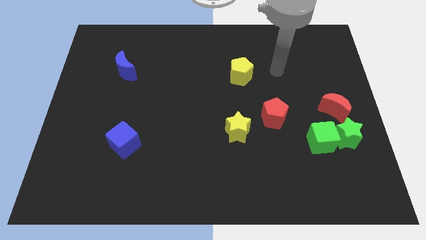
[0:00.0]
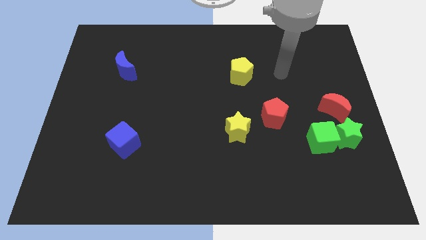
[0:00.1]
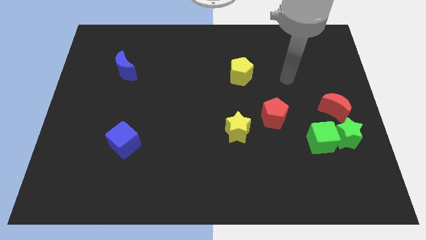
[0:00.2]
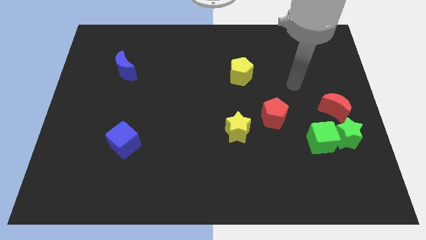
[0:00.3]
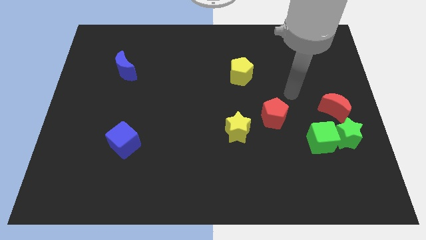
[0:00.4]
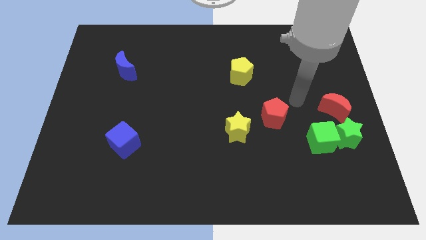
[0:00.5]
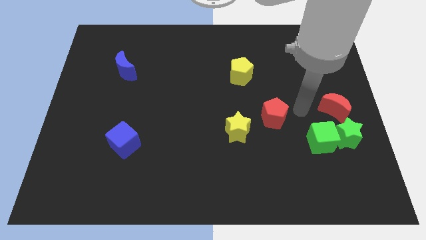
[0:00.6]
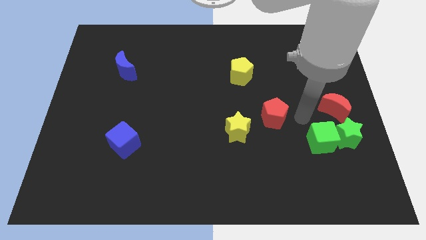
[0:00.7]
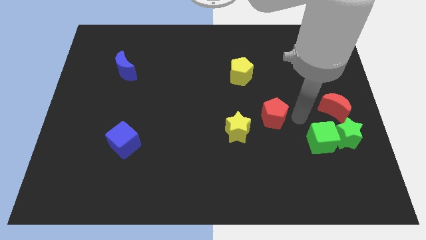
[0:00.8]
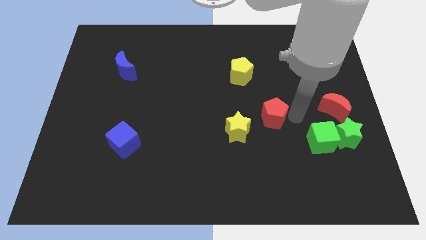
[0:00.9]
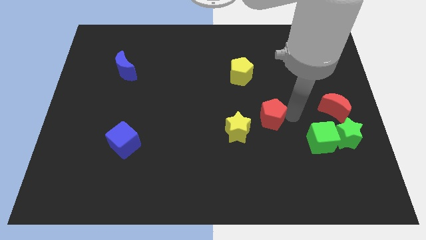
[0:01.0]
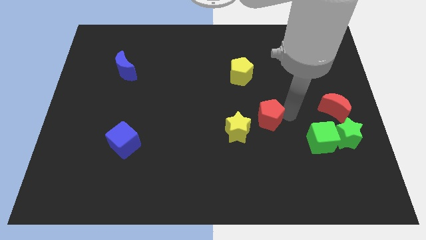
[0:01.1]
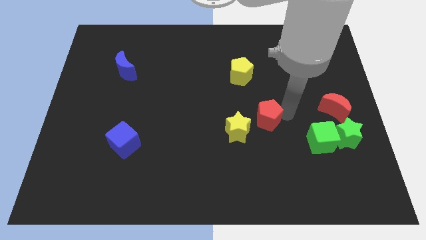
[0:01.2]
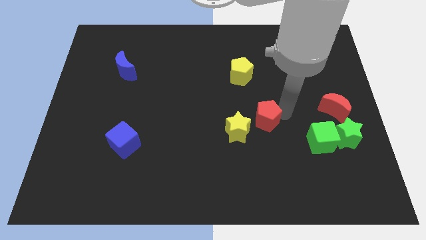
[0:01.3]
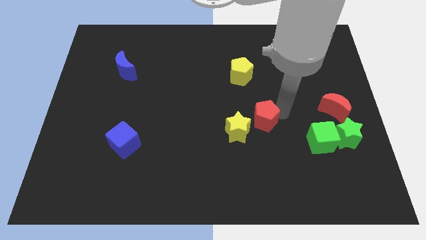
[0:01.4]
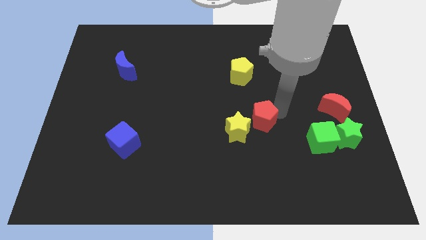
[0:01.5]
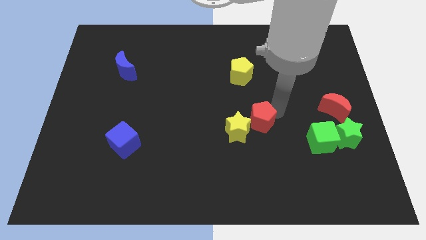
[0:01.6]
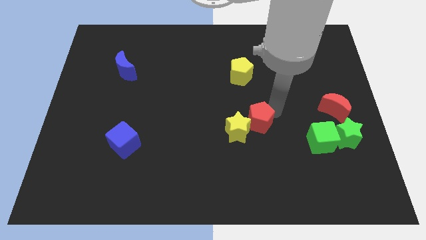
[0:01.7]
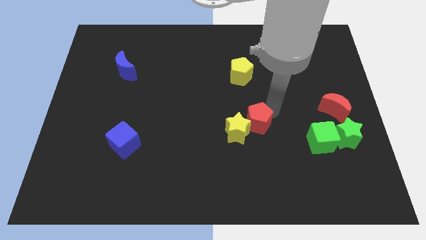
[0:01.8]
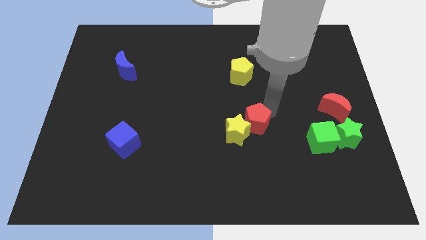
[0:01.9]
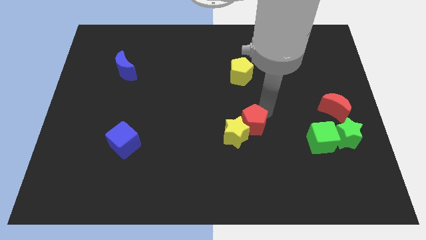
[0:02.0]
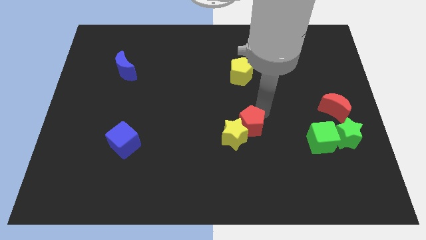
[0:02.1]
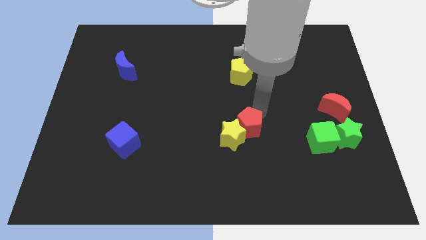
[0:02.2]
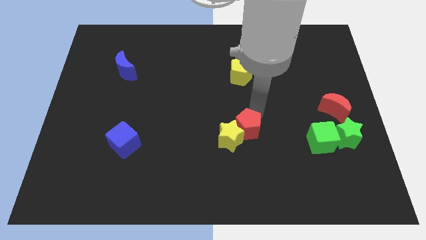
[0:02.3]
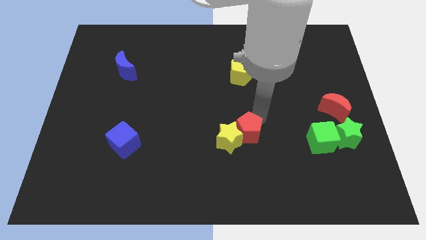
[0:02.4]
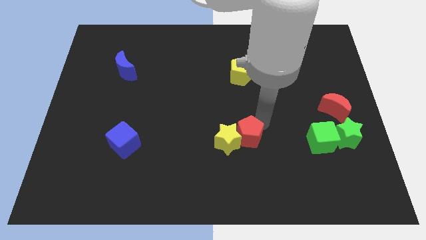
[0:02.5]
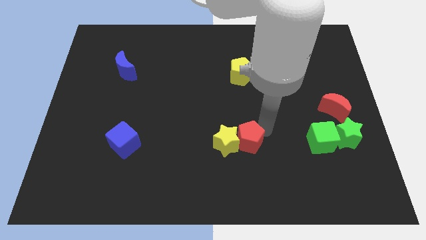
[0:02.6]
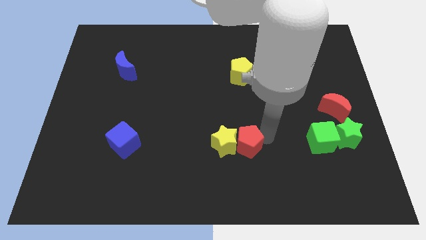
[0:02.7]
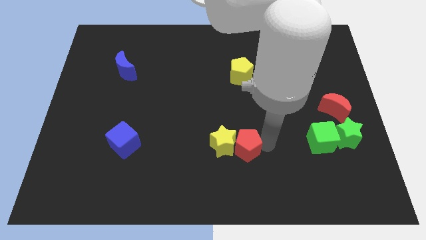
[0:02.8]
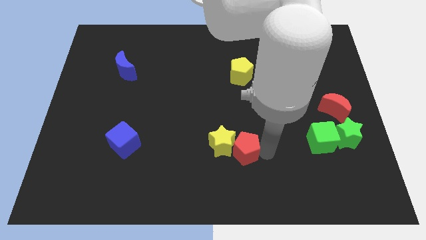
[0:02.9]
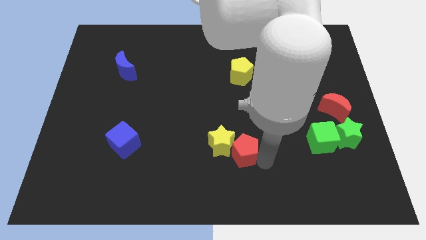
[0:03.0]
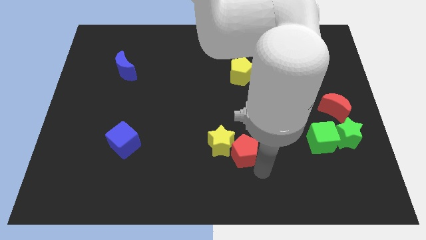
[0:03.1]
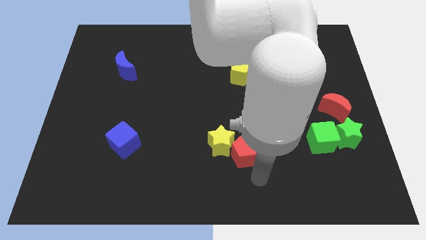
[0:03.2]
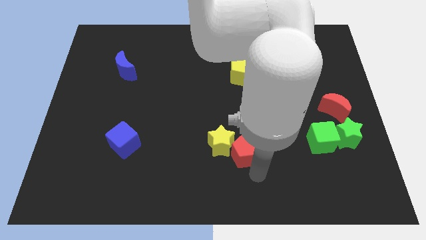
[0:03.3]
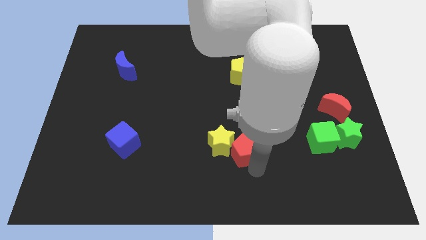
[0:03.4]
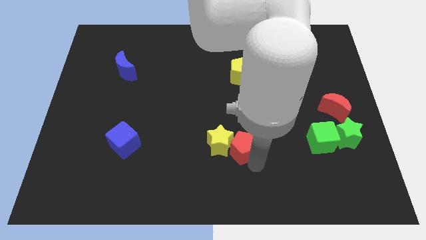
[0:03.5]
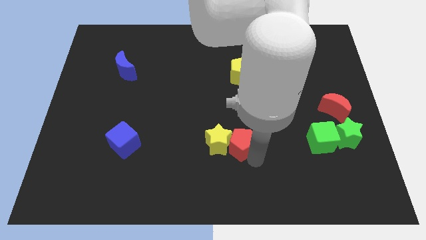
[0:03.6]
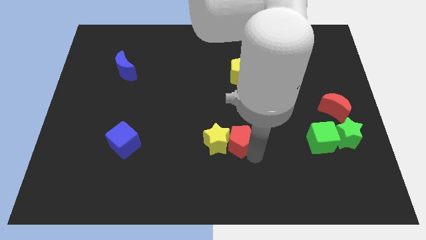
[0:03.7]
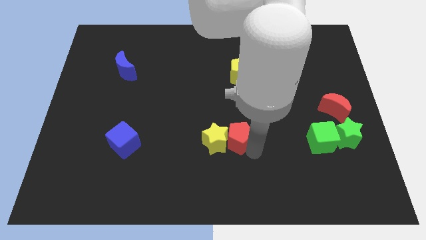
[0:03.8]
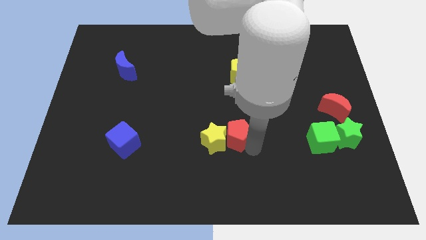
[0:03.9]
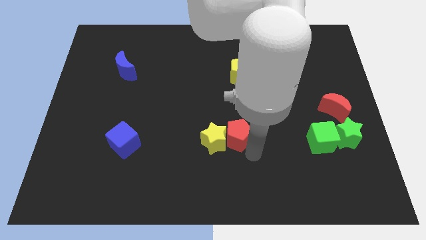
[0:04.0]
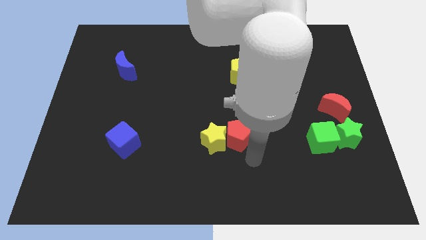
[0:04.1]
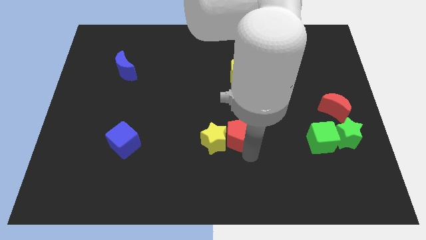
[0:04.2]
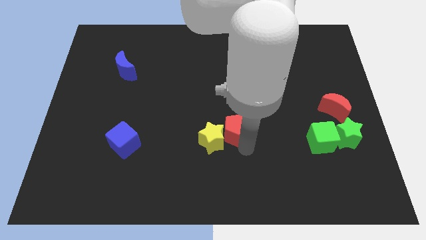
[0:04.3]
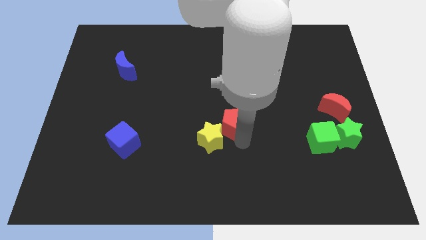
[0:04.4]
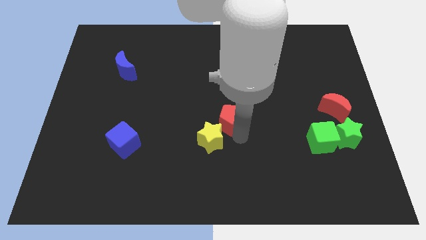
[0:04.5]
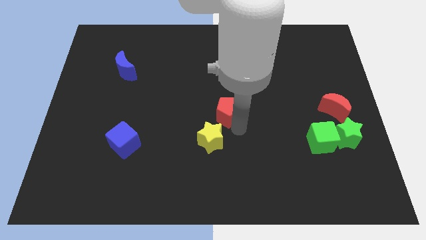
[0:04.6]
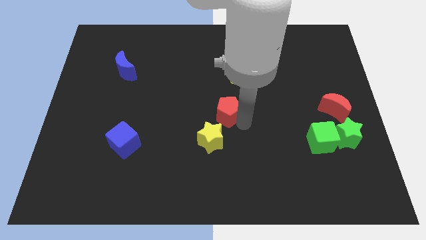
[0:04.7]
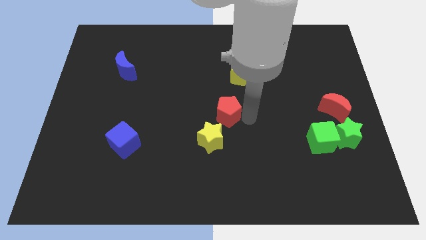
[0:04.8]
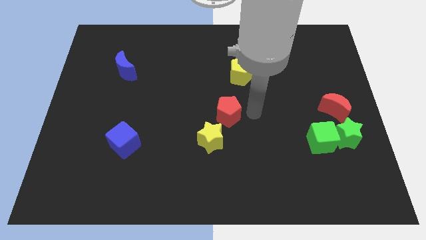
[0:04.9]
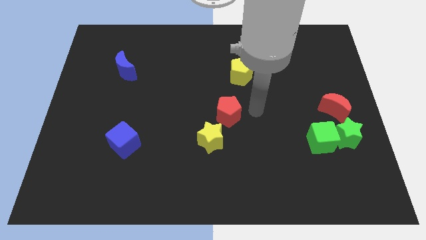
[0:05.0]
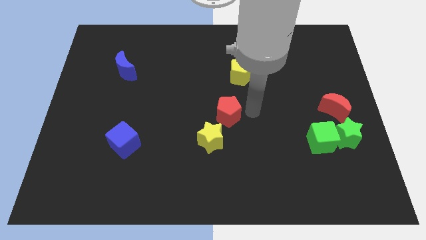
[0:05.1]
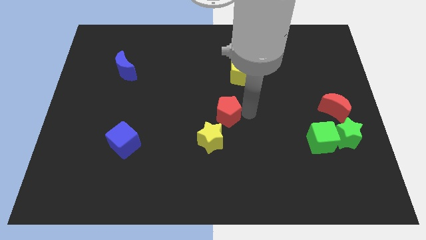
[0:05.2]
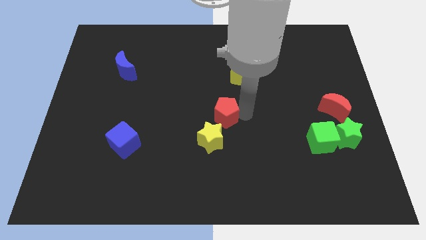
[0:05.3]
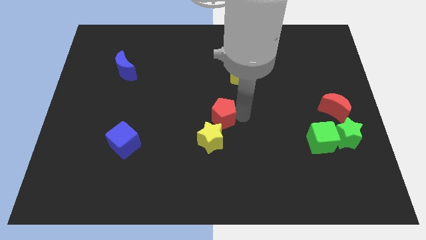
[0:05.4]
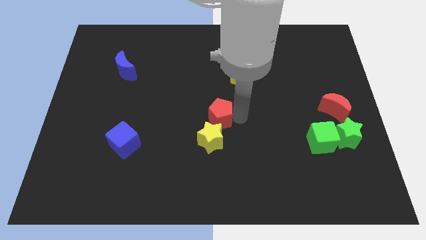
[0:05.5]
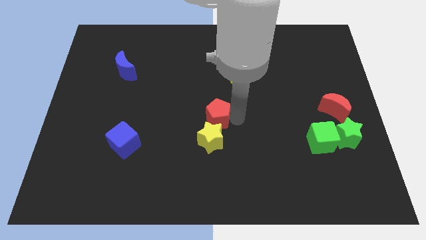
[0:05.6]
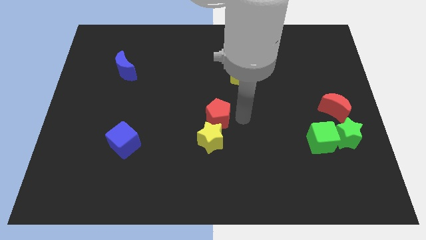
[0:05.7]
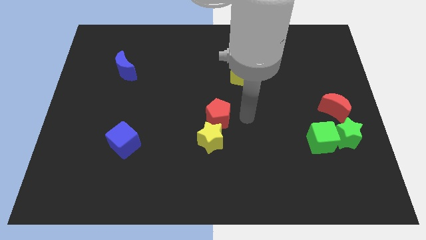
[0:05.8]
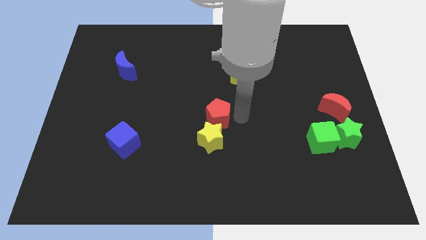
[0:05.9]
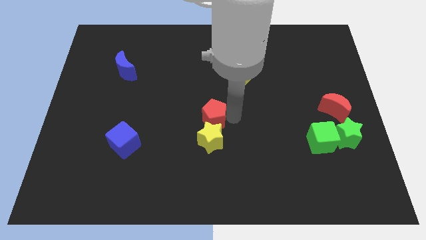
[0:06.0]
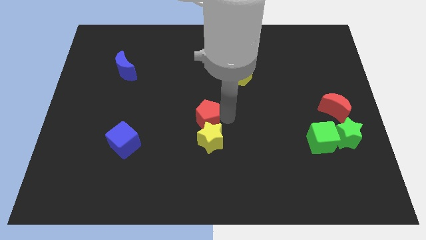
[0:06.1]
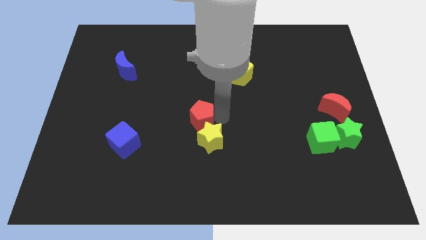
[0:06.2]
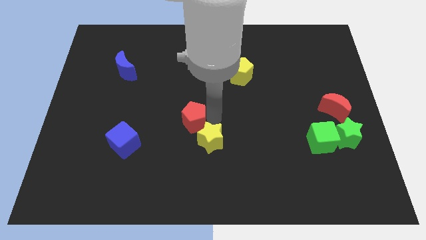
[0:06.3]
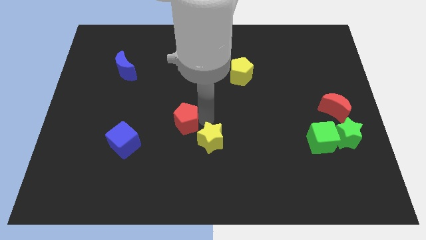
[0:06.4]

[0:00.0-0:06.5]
move the red pentagon to the left

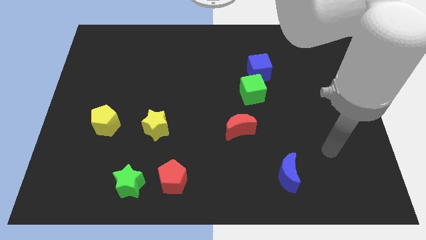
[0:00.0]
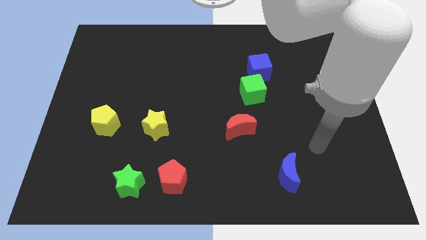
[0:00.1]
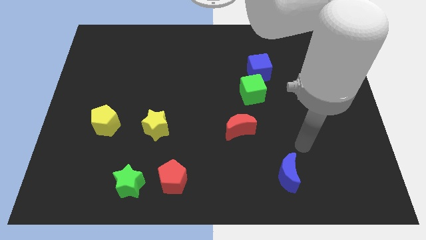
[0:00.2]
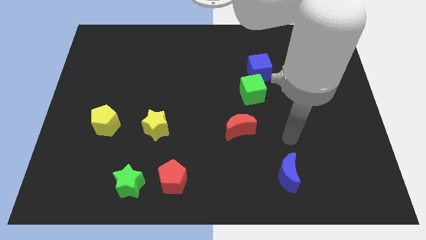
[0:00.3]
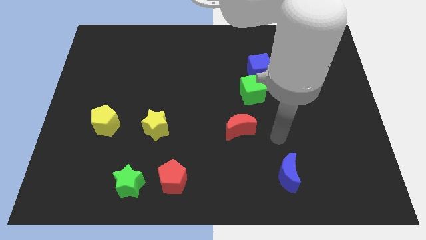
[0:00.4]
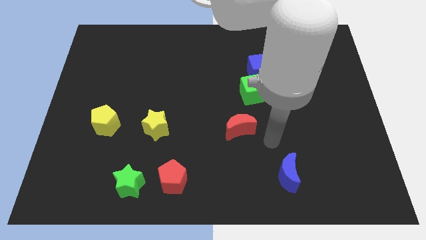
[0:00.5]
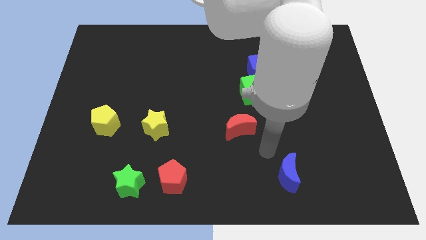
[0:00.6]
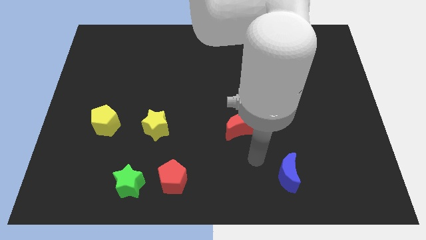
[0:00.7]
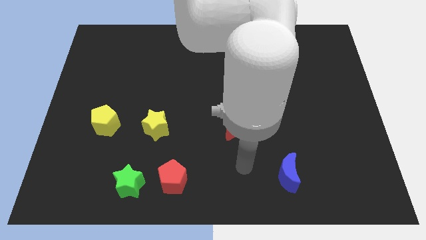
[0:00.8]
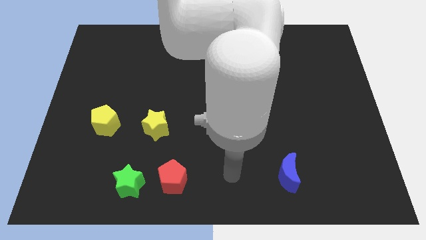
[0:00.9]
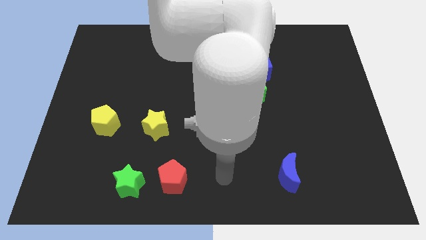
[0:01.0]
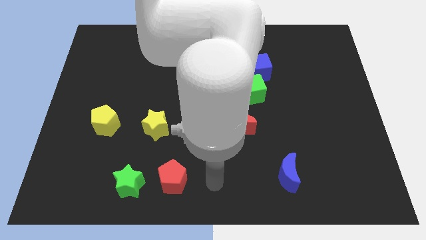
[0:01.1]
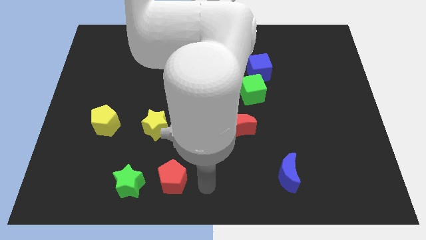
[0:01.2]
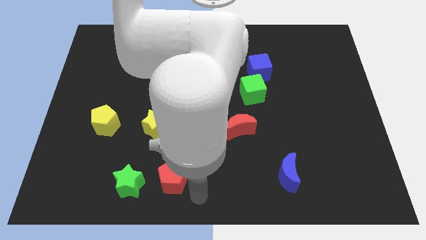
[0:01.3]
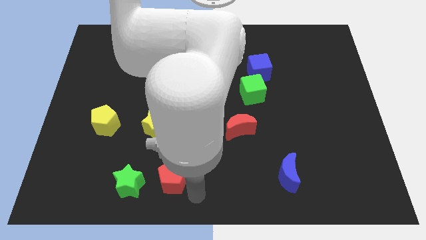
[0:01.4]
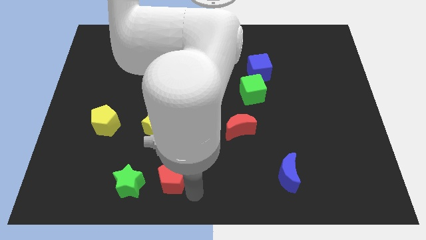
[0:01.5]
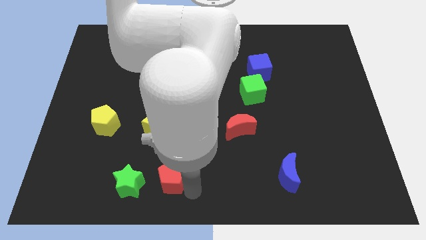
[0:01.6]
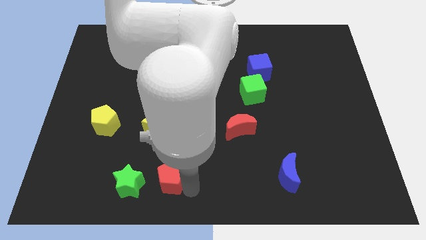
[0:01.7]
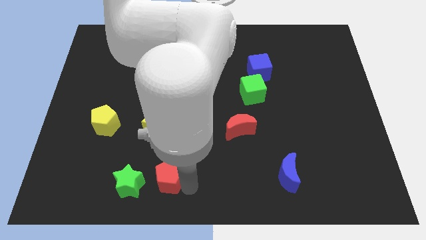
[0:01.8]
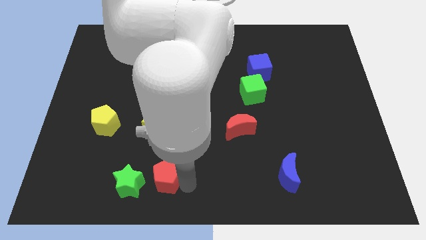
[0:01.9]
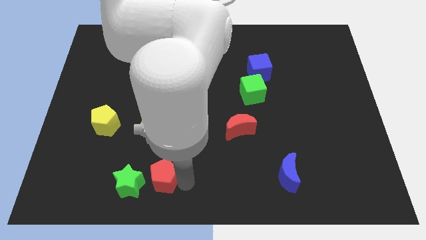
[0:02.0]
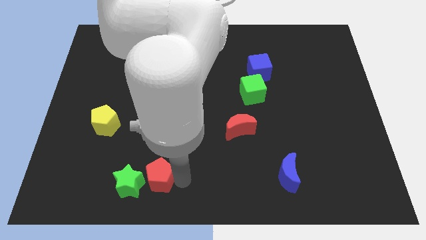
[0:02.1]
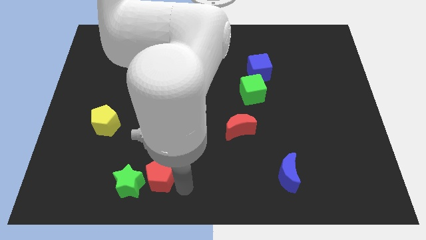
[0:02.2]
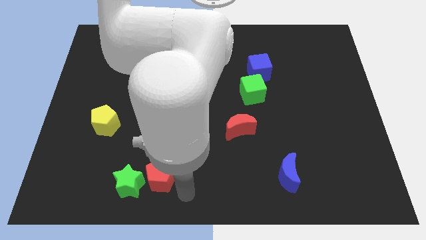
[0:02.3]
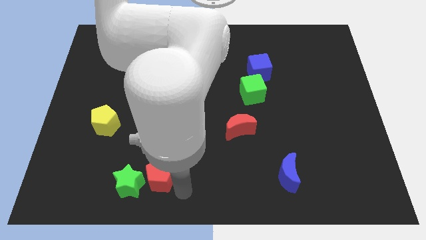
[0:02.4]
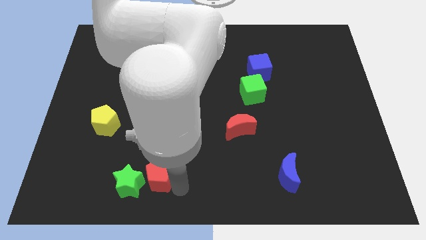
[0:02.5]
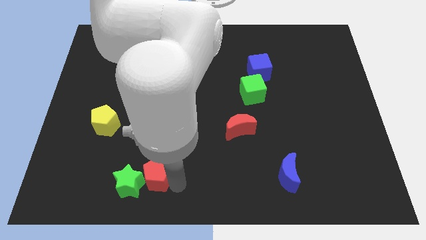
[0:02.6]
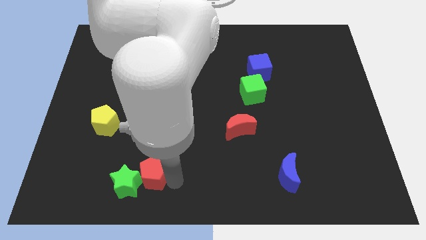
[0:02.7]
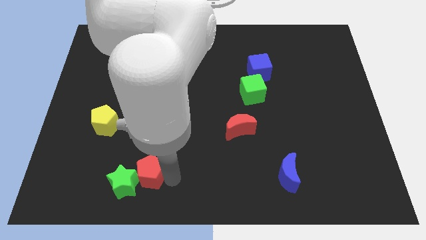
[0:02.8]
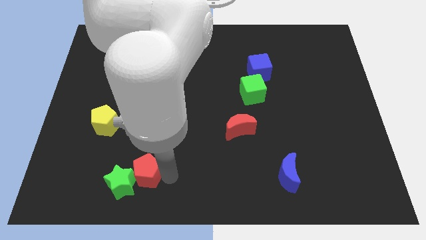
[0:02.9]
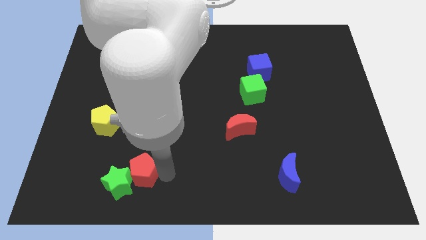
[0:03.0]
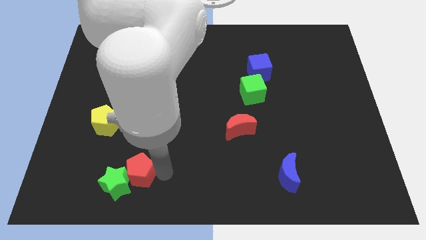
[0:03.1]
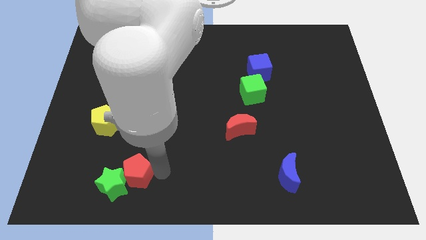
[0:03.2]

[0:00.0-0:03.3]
slightly move the red pentagon left
